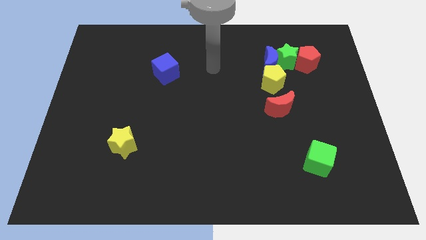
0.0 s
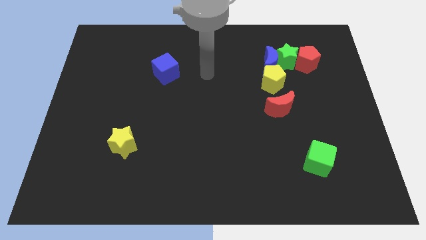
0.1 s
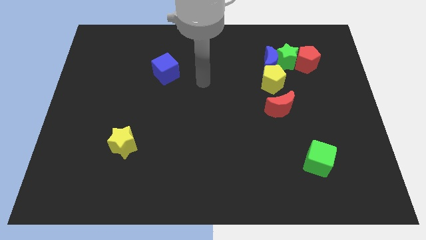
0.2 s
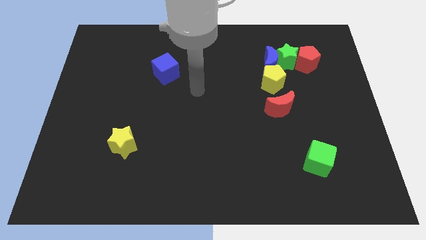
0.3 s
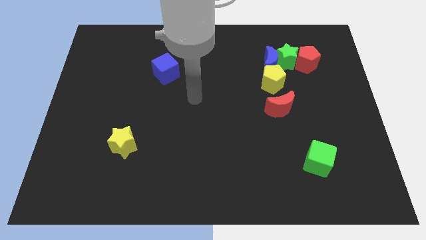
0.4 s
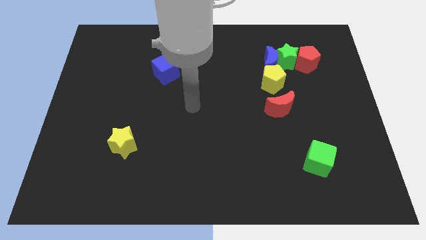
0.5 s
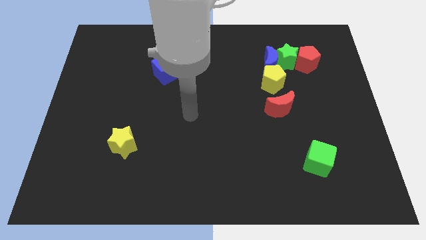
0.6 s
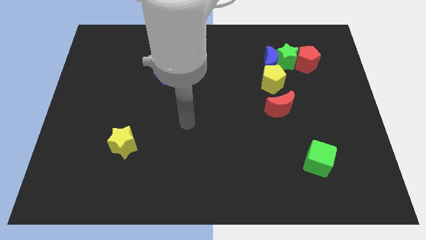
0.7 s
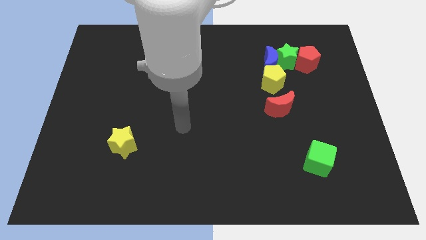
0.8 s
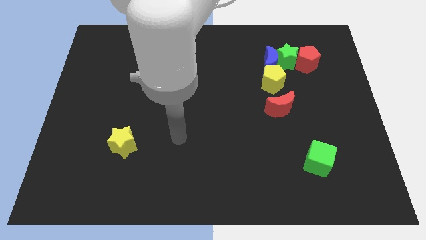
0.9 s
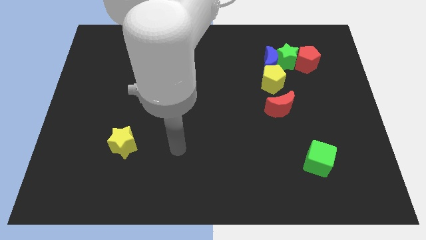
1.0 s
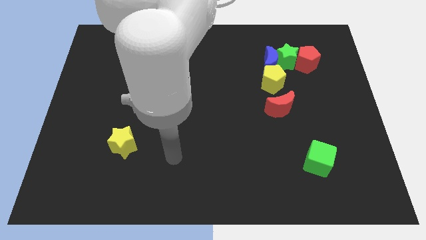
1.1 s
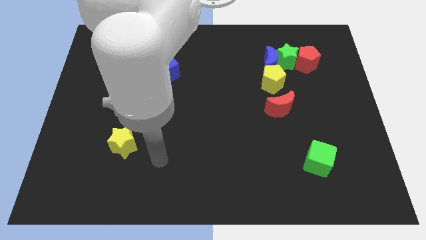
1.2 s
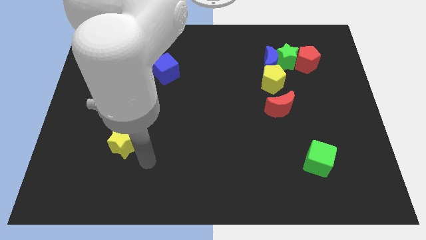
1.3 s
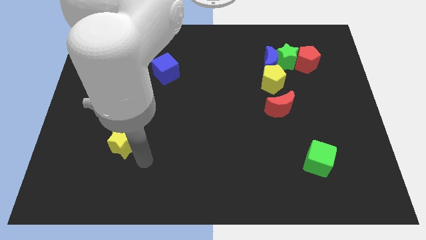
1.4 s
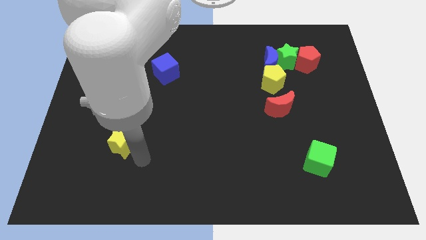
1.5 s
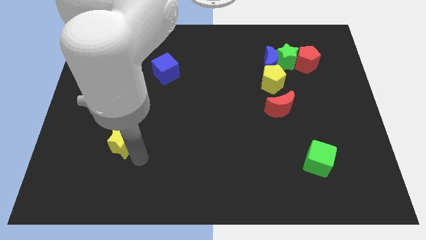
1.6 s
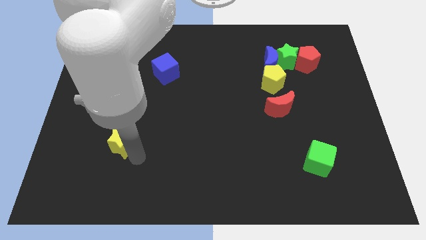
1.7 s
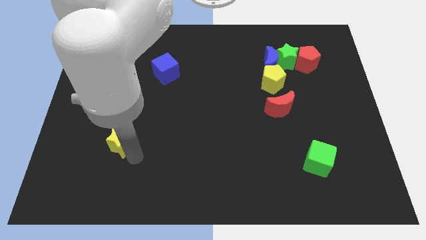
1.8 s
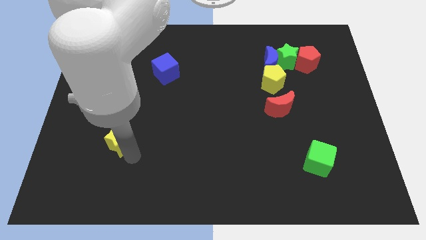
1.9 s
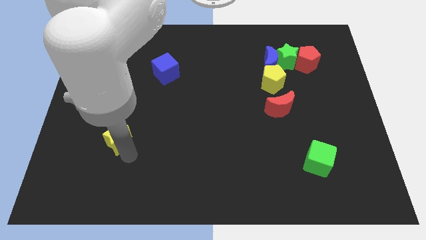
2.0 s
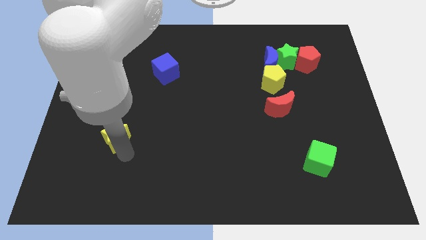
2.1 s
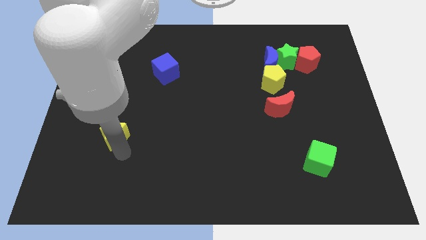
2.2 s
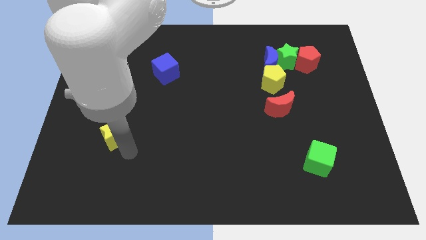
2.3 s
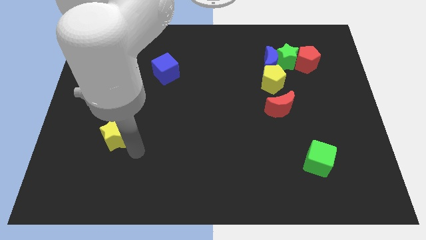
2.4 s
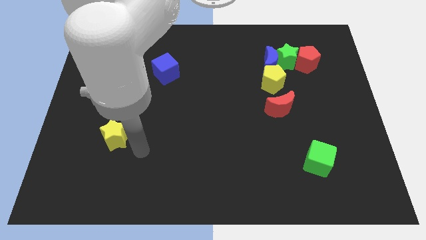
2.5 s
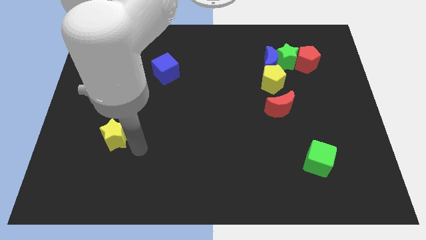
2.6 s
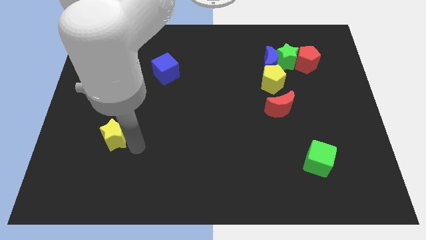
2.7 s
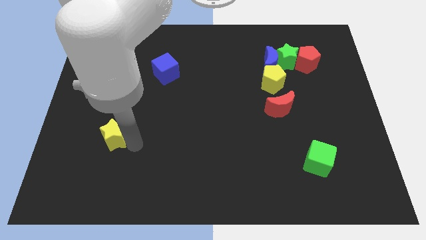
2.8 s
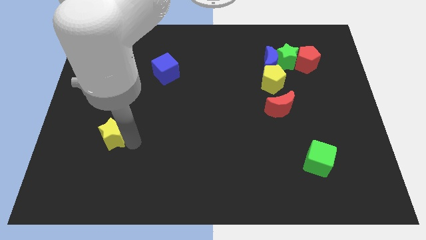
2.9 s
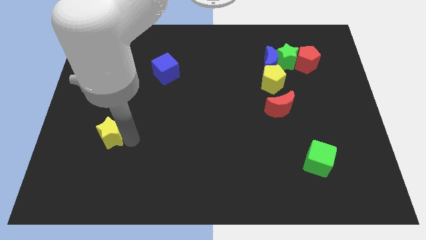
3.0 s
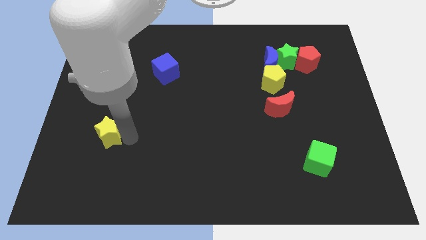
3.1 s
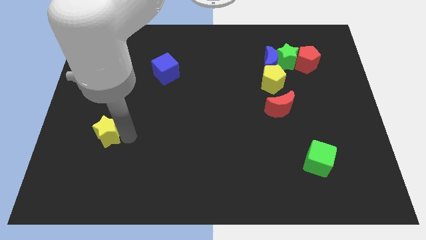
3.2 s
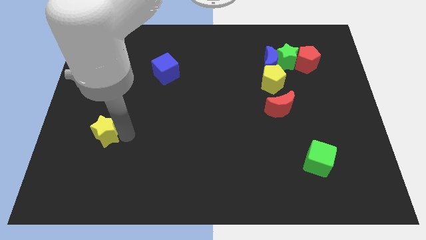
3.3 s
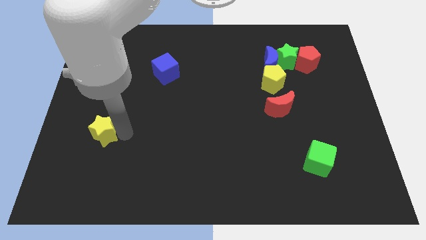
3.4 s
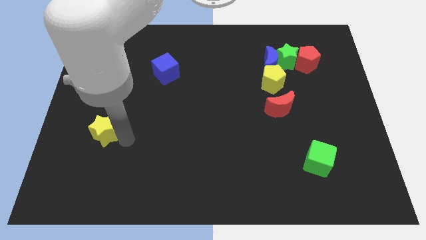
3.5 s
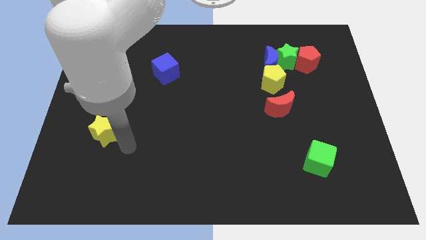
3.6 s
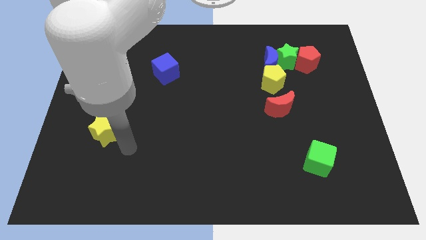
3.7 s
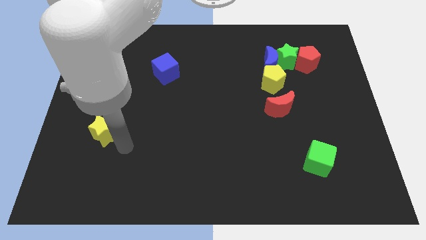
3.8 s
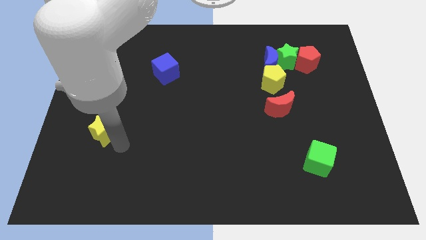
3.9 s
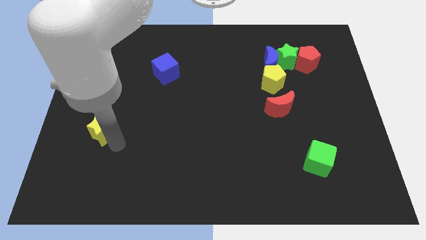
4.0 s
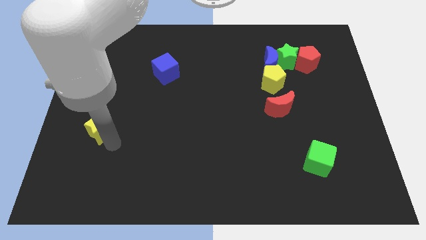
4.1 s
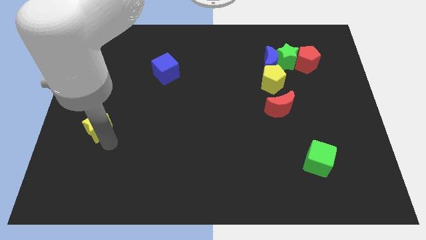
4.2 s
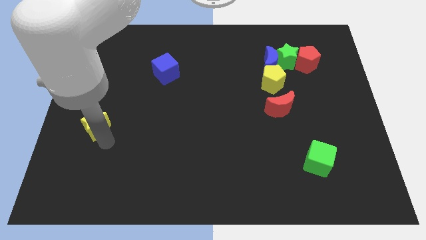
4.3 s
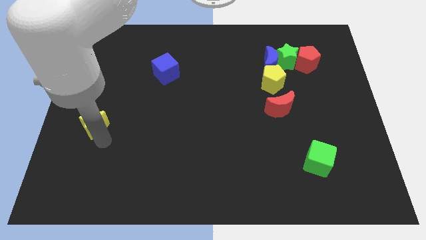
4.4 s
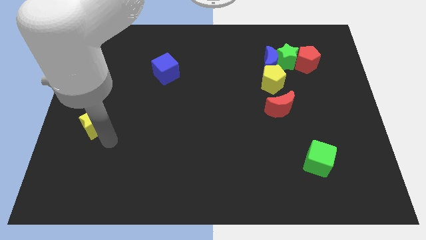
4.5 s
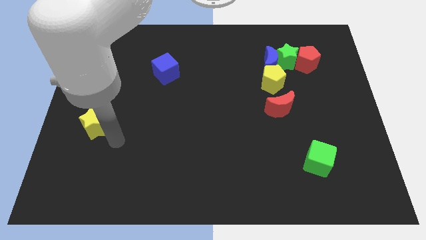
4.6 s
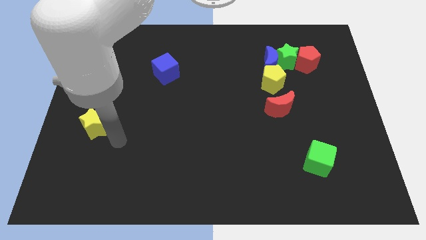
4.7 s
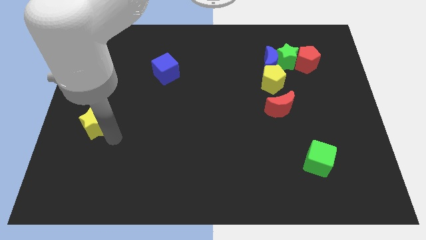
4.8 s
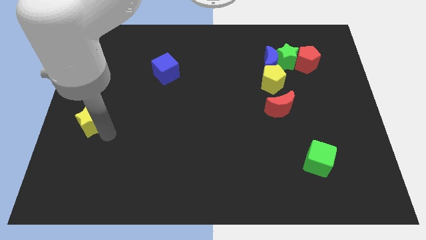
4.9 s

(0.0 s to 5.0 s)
move the yellow star to the center left

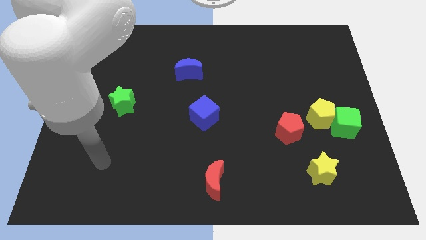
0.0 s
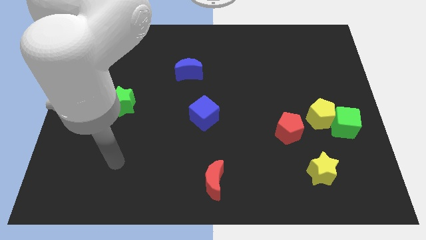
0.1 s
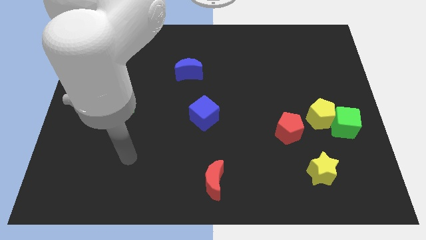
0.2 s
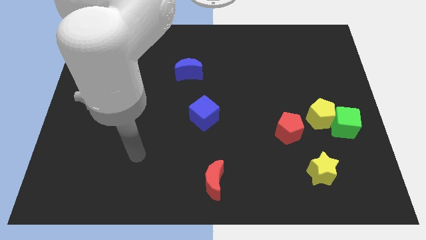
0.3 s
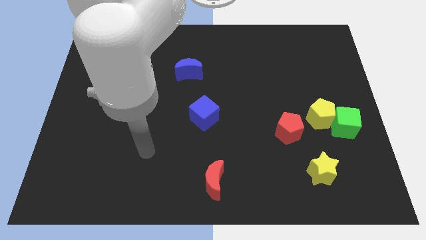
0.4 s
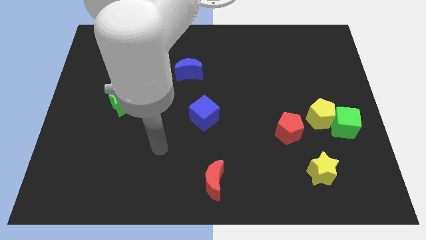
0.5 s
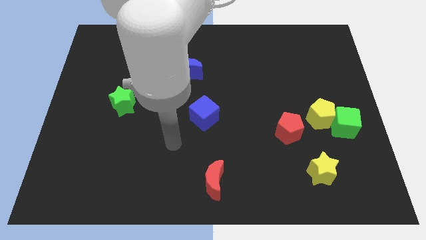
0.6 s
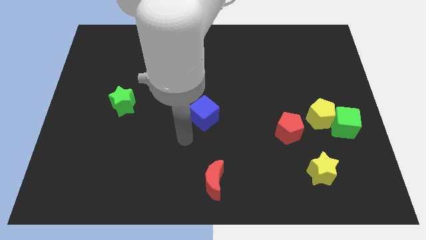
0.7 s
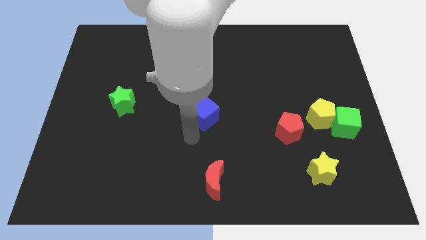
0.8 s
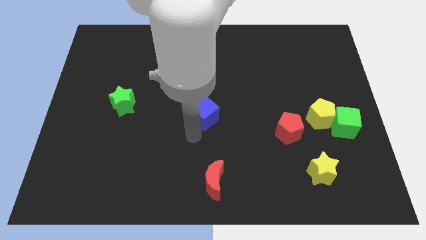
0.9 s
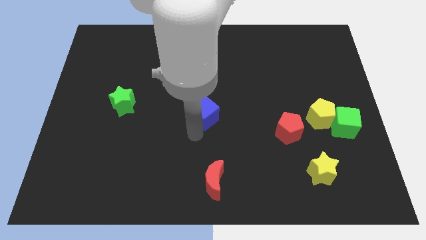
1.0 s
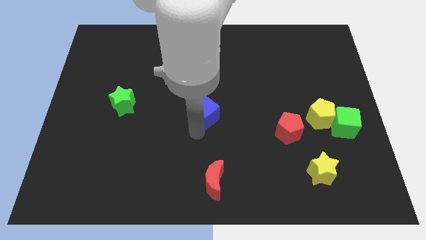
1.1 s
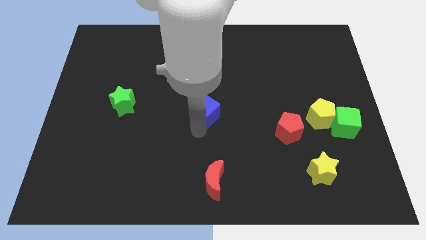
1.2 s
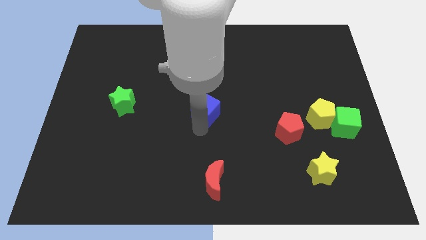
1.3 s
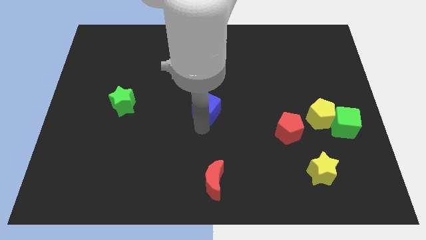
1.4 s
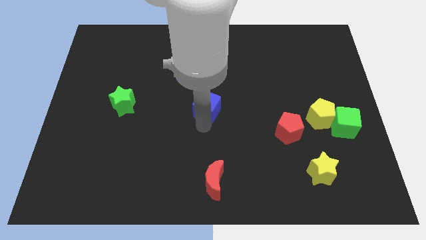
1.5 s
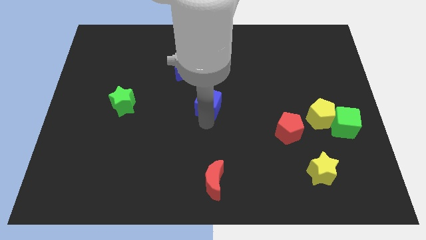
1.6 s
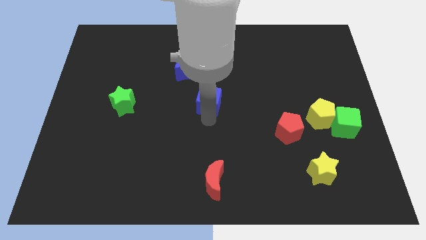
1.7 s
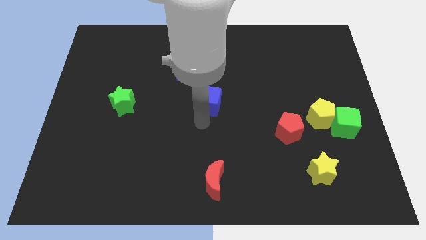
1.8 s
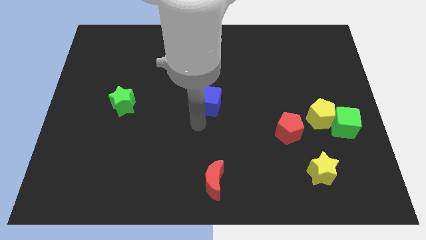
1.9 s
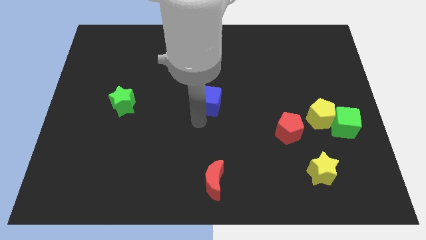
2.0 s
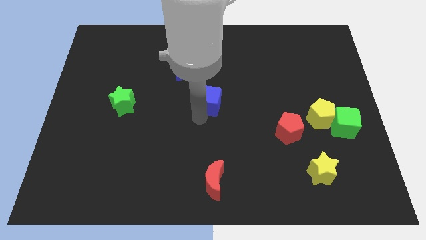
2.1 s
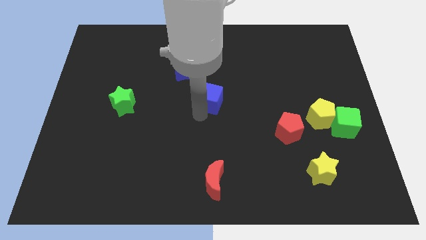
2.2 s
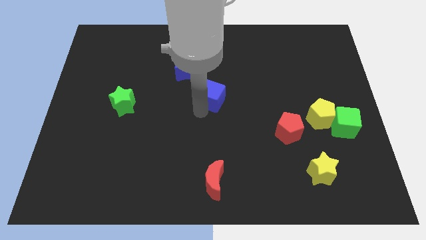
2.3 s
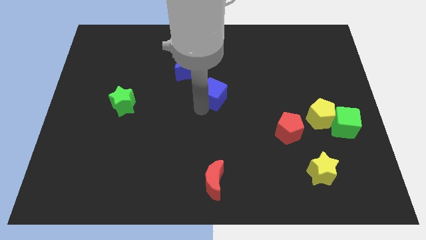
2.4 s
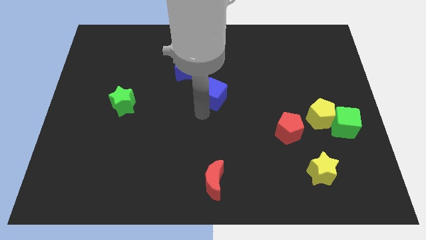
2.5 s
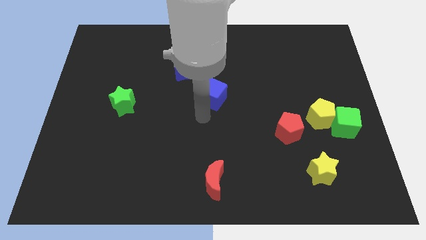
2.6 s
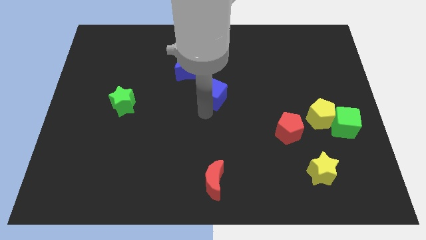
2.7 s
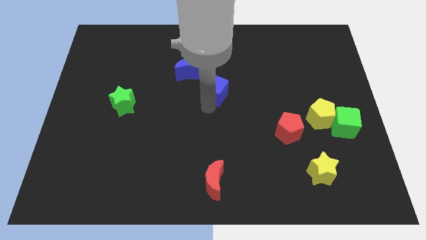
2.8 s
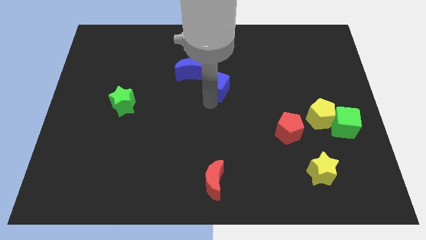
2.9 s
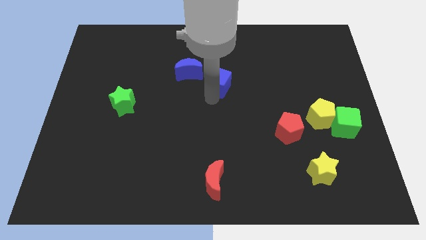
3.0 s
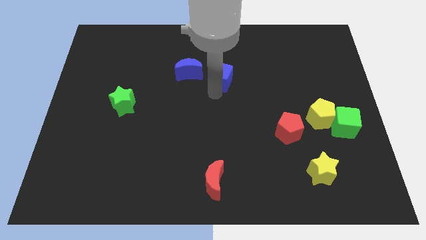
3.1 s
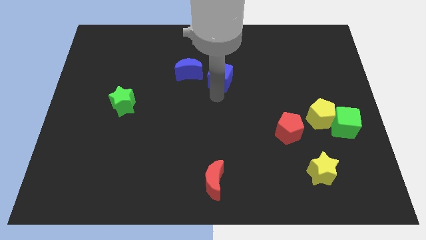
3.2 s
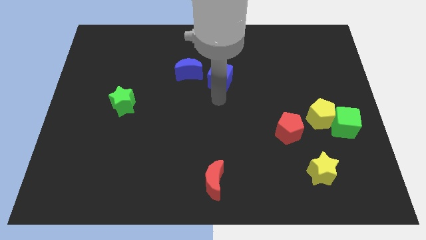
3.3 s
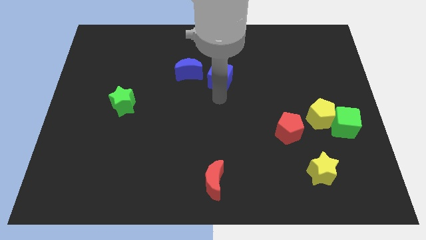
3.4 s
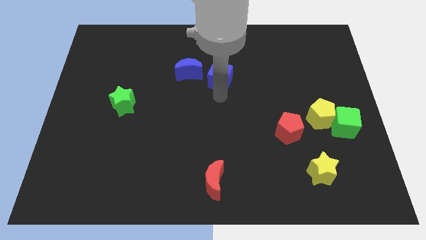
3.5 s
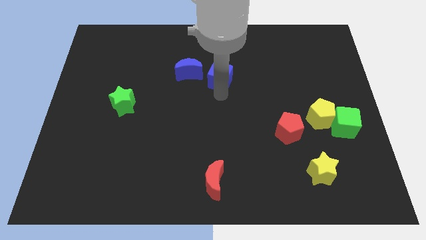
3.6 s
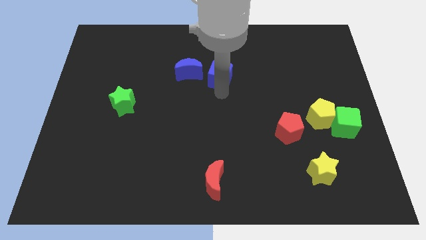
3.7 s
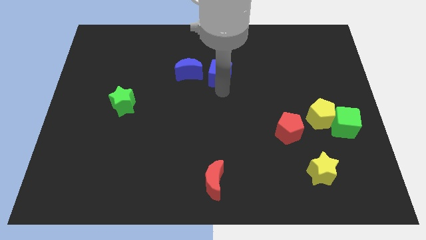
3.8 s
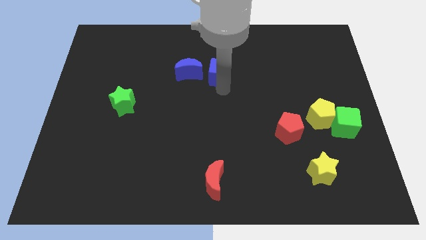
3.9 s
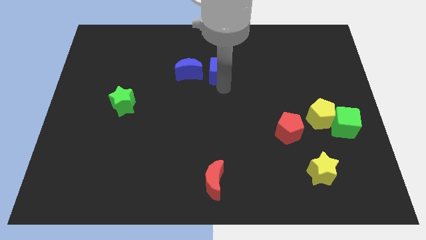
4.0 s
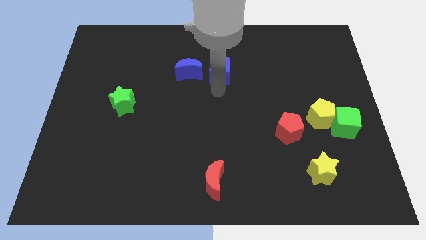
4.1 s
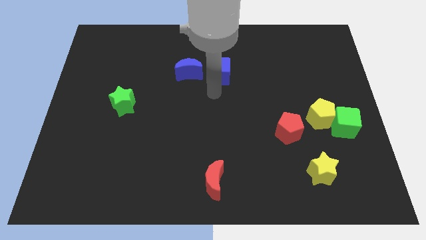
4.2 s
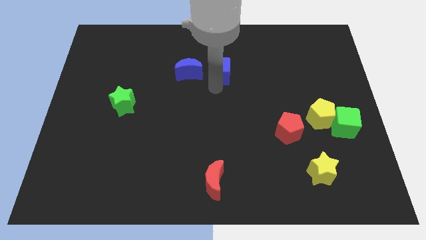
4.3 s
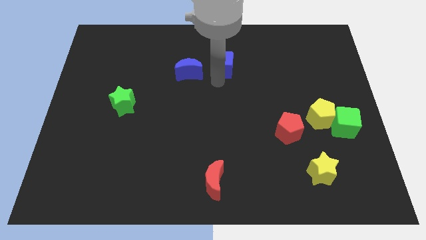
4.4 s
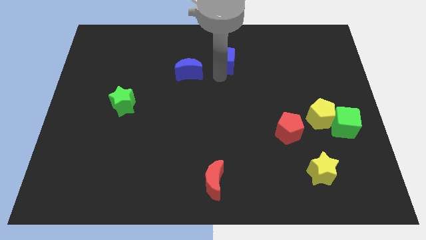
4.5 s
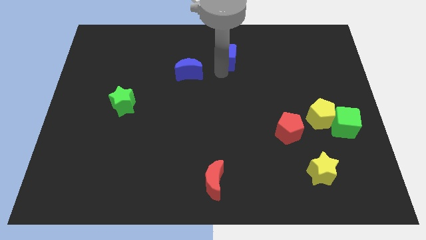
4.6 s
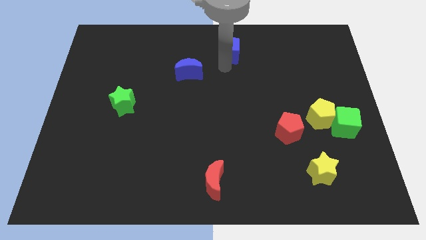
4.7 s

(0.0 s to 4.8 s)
push the blue cube to the top side
